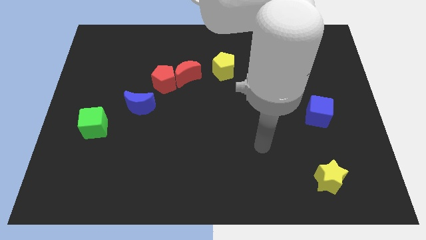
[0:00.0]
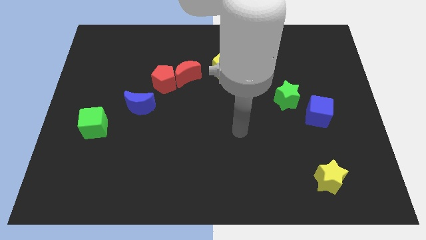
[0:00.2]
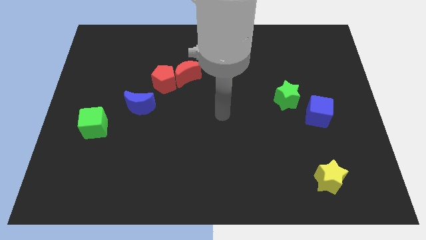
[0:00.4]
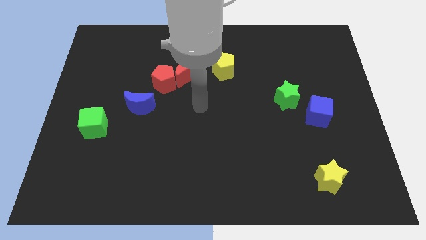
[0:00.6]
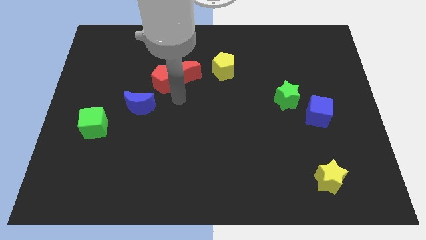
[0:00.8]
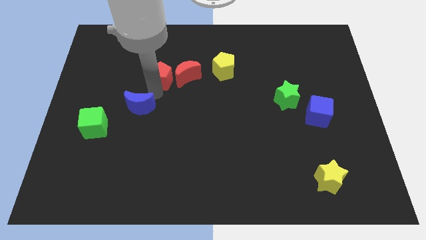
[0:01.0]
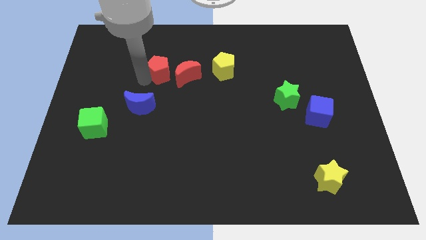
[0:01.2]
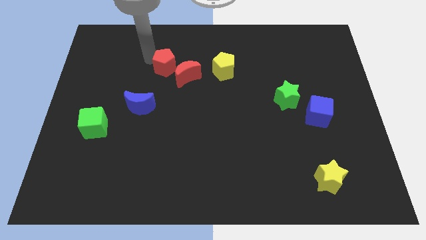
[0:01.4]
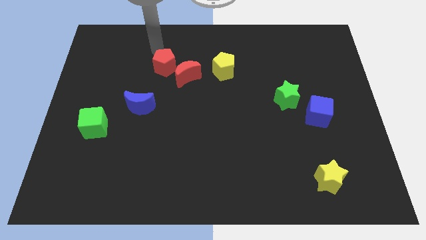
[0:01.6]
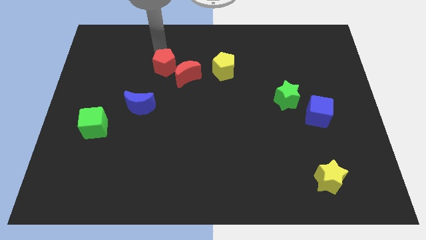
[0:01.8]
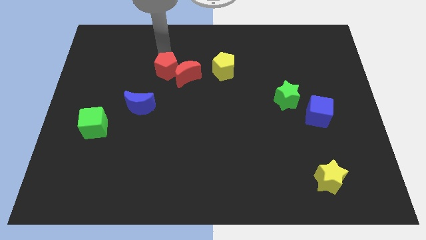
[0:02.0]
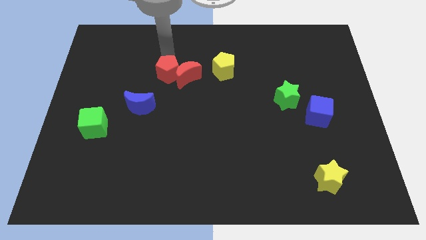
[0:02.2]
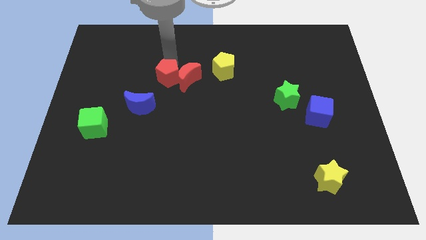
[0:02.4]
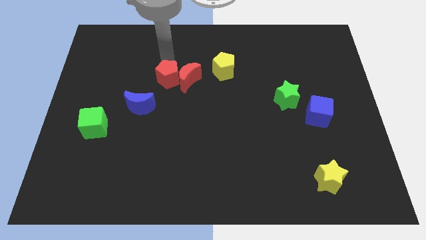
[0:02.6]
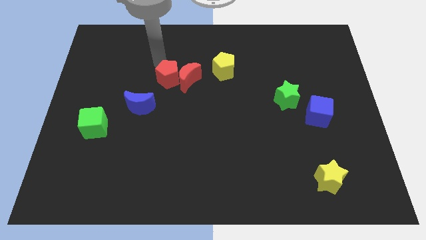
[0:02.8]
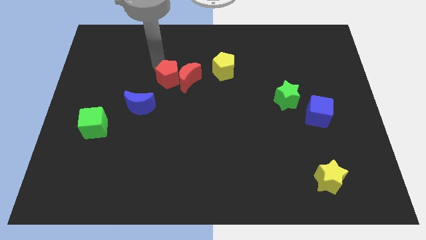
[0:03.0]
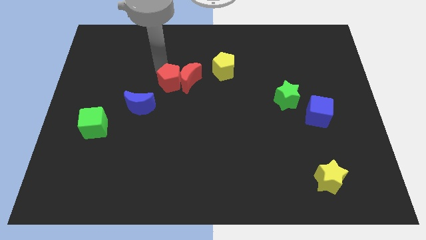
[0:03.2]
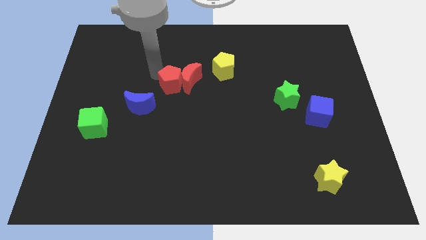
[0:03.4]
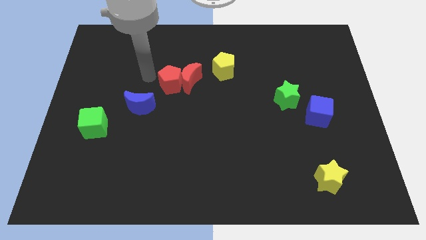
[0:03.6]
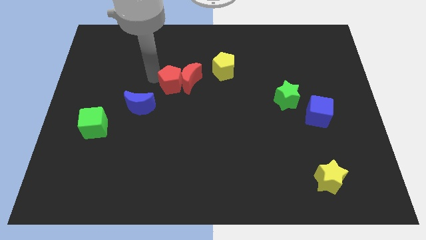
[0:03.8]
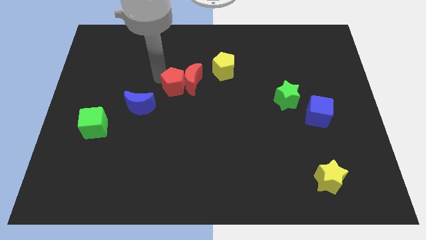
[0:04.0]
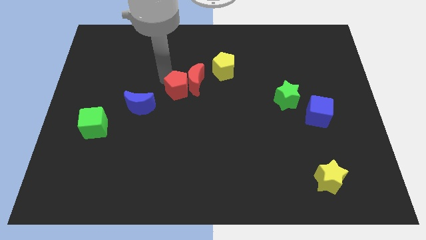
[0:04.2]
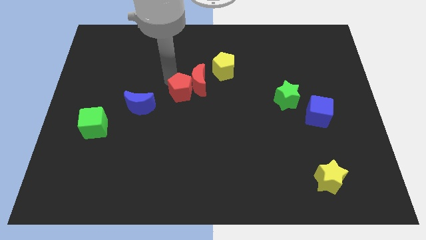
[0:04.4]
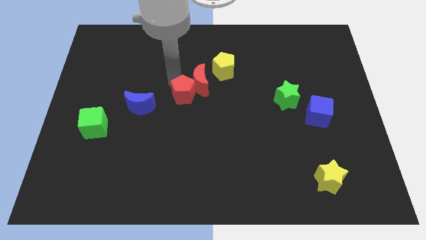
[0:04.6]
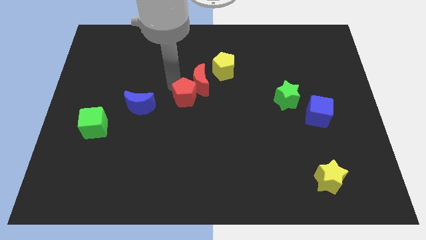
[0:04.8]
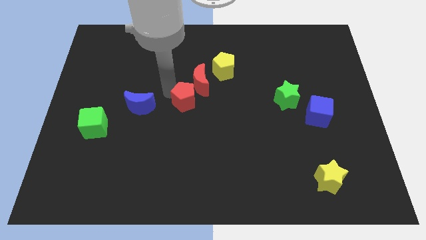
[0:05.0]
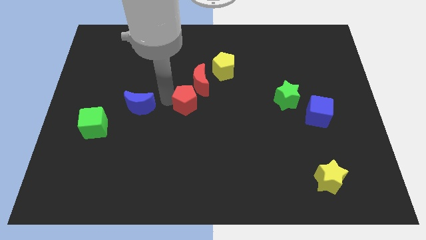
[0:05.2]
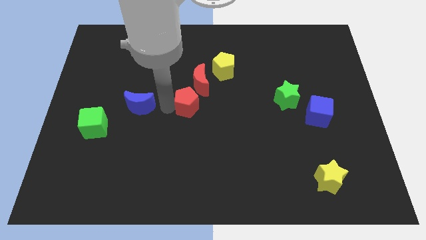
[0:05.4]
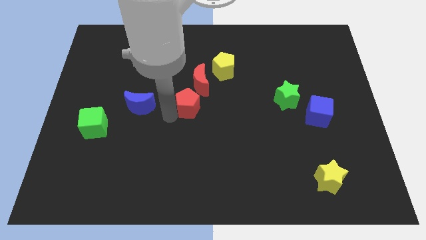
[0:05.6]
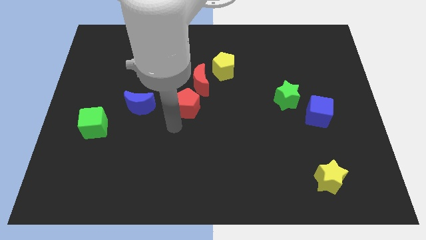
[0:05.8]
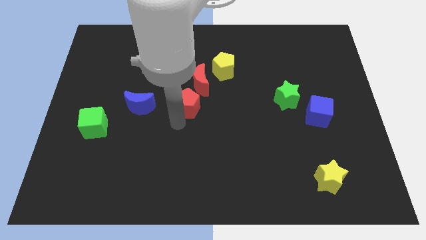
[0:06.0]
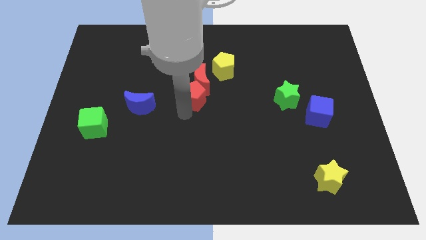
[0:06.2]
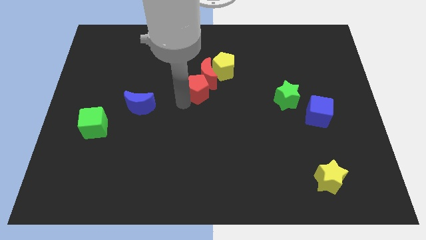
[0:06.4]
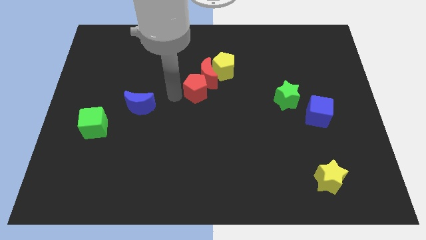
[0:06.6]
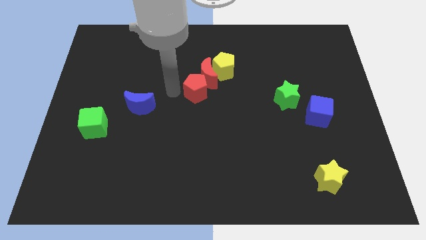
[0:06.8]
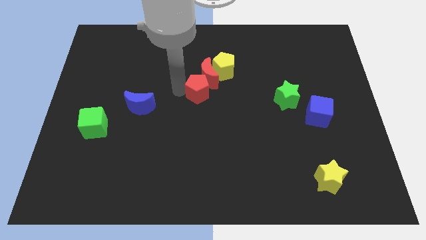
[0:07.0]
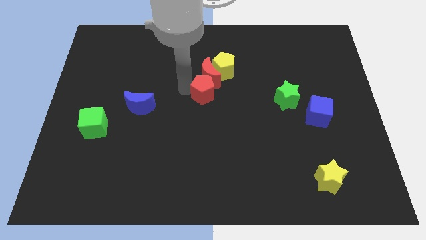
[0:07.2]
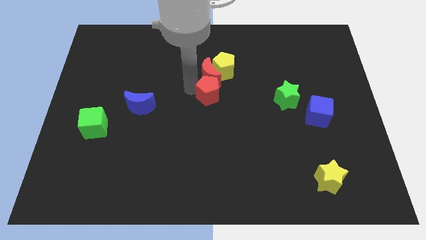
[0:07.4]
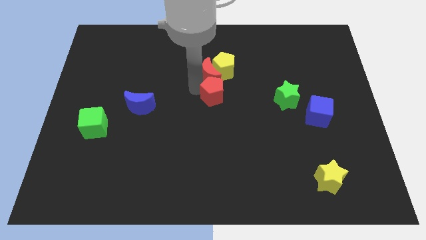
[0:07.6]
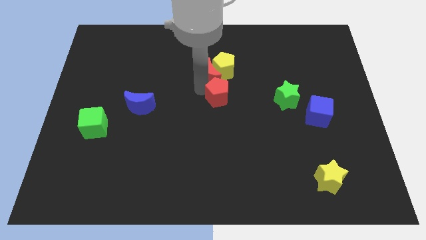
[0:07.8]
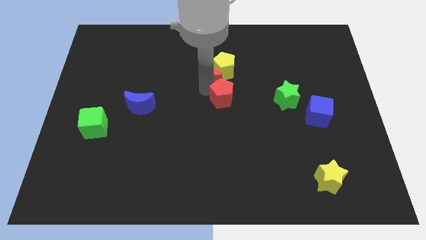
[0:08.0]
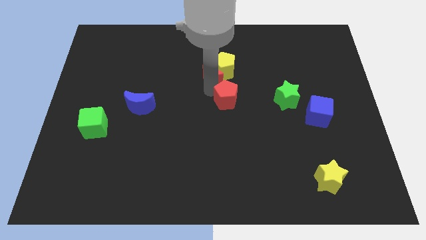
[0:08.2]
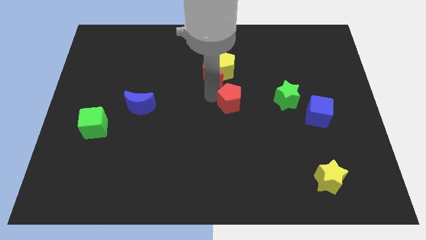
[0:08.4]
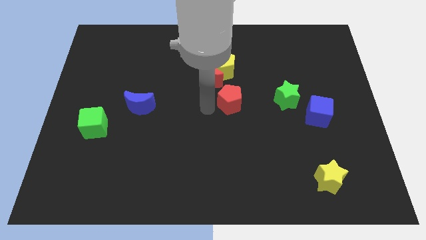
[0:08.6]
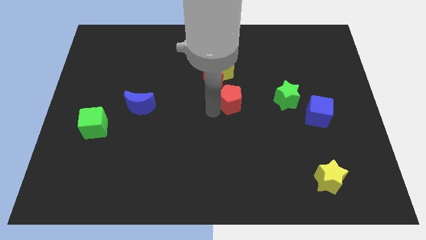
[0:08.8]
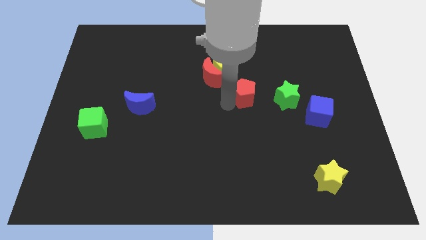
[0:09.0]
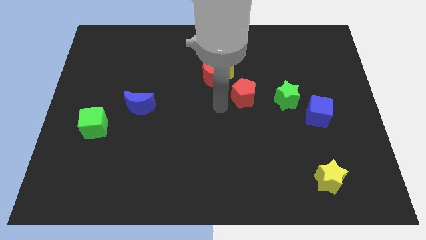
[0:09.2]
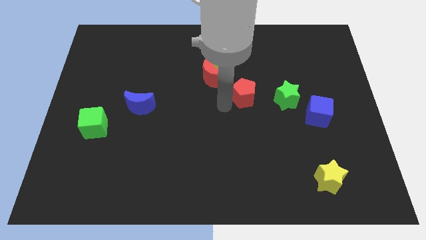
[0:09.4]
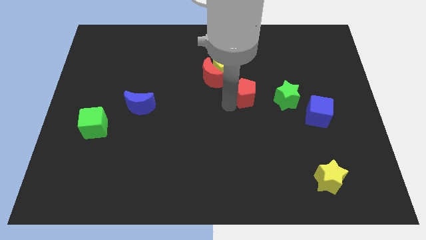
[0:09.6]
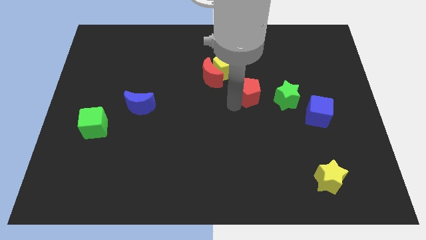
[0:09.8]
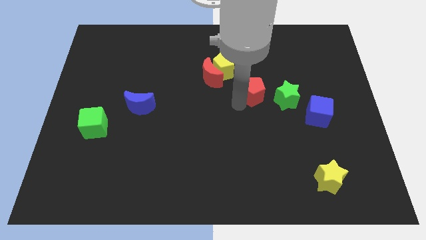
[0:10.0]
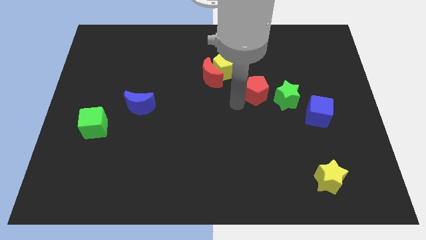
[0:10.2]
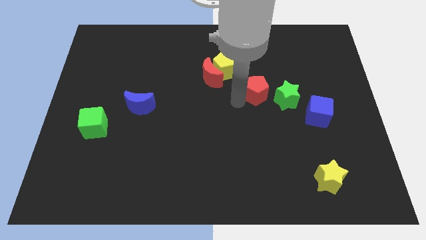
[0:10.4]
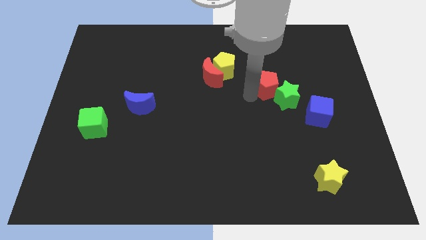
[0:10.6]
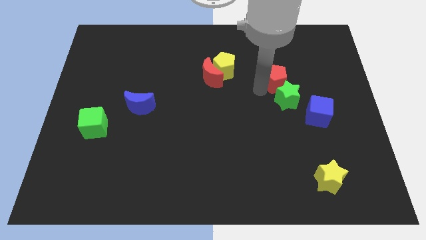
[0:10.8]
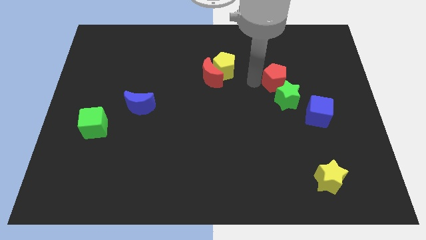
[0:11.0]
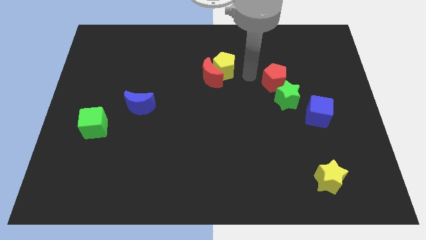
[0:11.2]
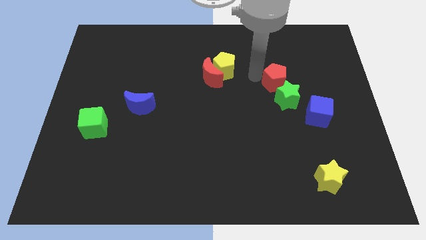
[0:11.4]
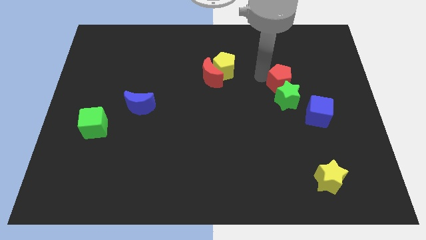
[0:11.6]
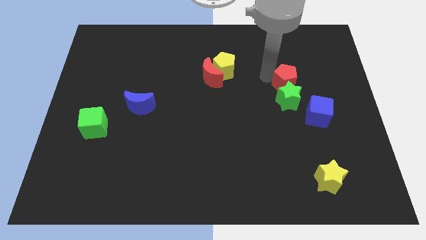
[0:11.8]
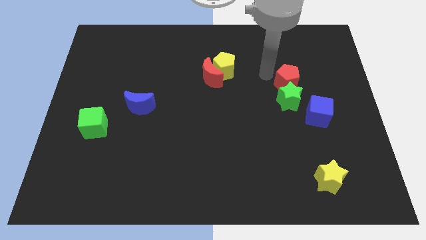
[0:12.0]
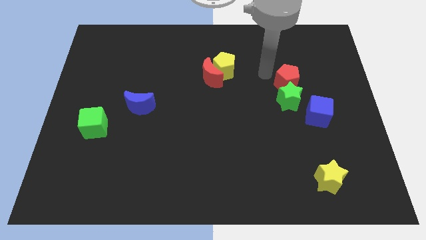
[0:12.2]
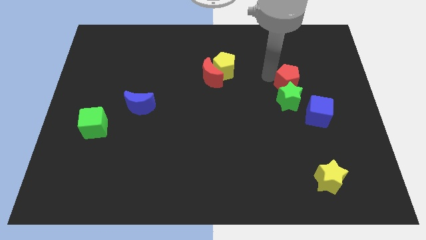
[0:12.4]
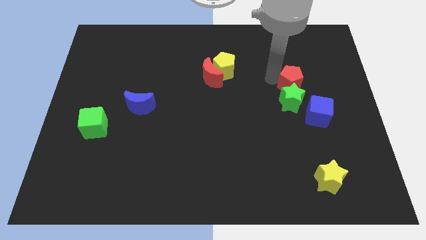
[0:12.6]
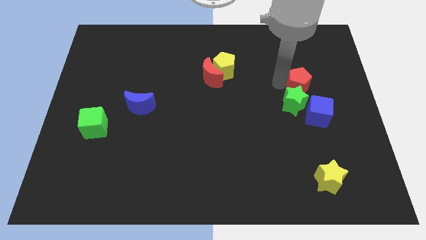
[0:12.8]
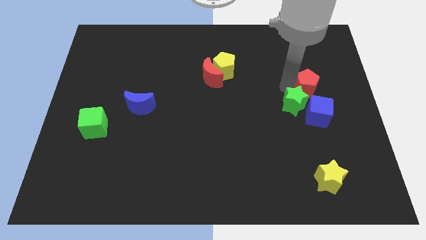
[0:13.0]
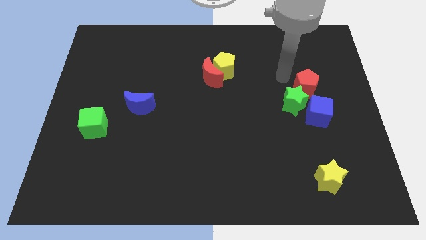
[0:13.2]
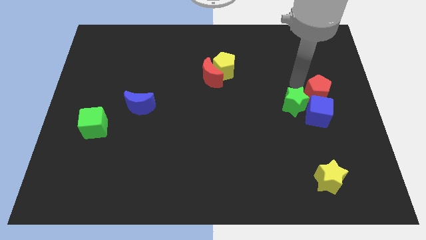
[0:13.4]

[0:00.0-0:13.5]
put the red pentagon just right of the green star

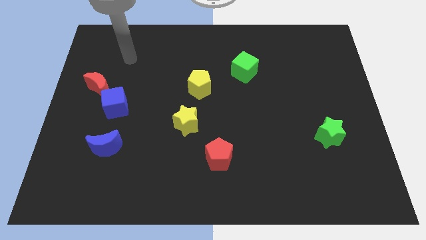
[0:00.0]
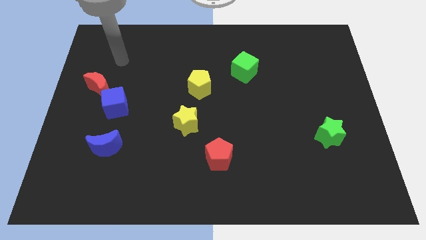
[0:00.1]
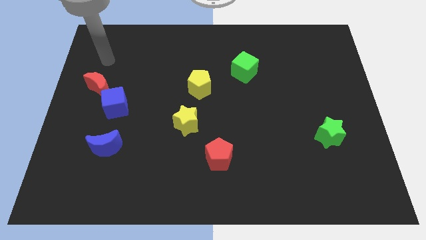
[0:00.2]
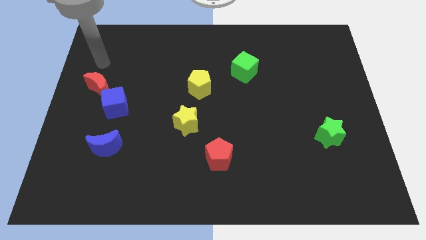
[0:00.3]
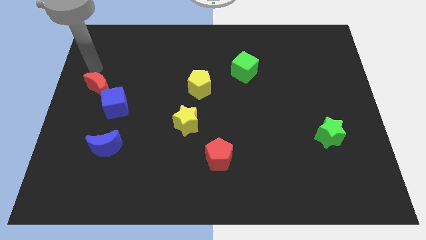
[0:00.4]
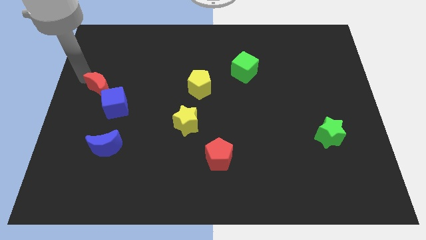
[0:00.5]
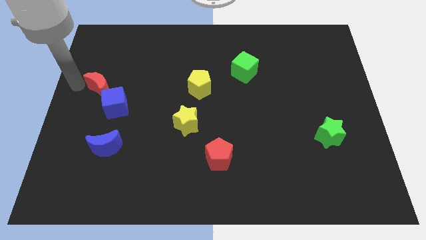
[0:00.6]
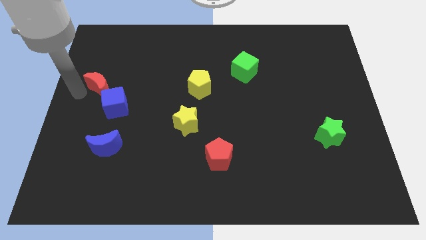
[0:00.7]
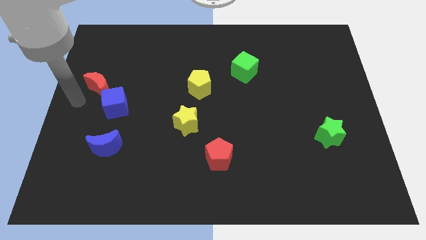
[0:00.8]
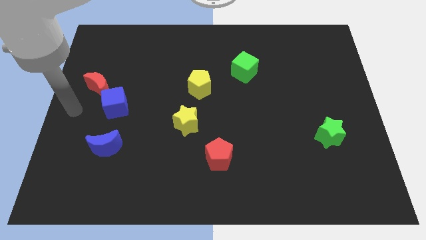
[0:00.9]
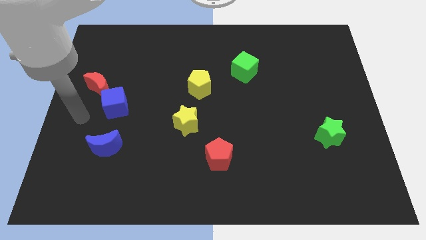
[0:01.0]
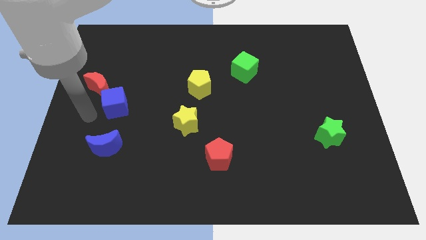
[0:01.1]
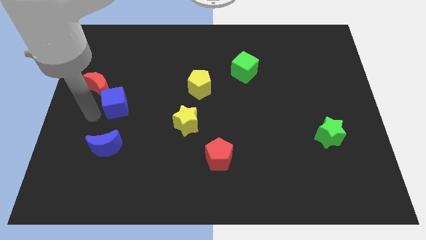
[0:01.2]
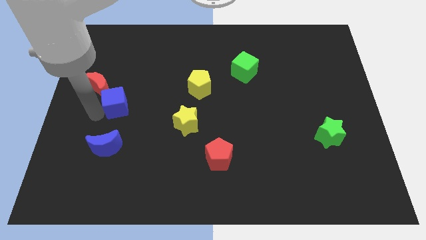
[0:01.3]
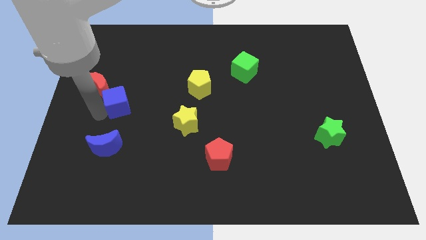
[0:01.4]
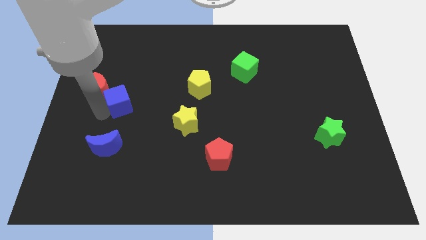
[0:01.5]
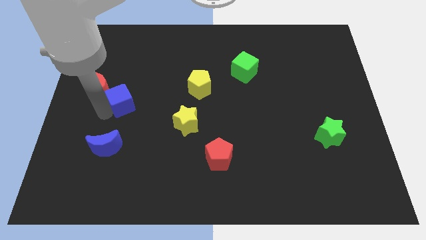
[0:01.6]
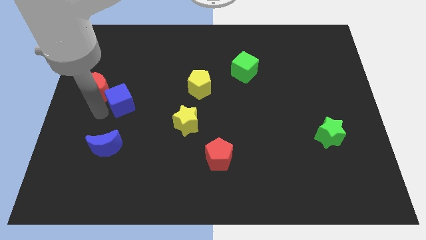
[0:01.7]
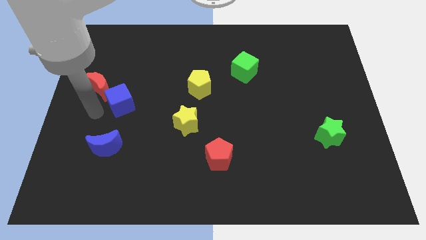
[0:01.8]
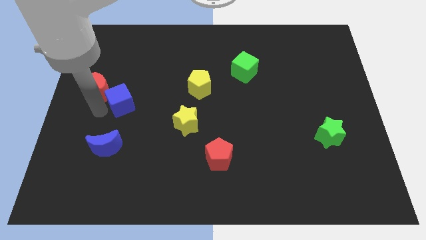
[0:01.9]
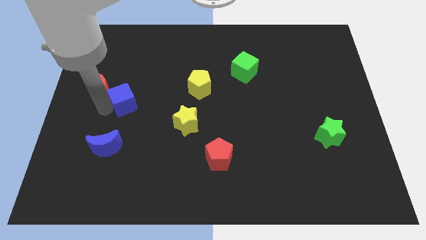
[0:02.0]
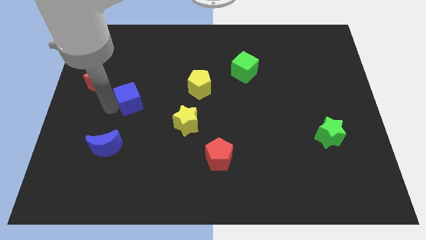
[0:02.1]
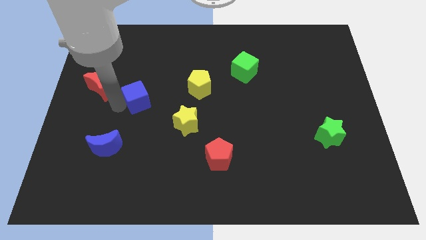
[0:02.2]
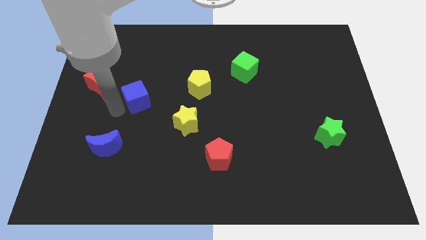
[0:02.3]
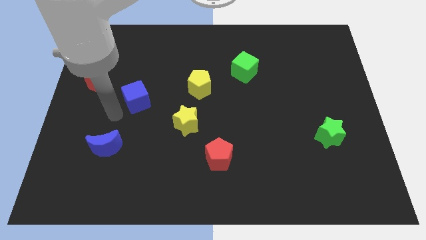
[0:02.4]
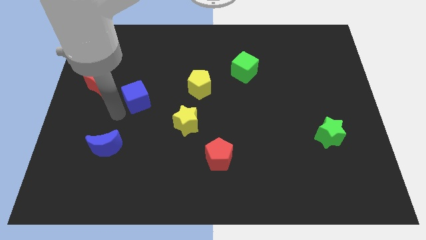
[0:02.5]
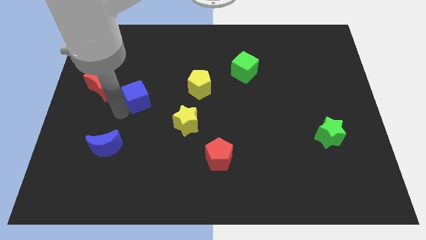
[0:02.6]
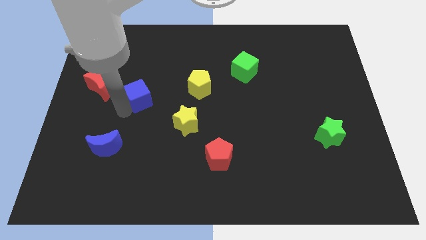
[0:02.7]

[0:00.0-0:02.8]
put the blue cube left of the yellow pentagon
